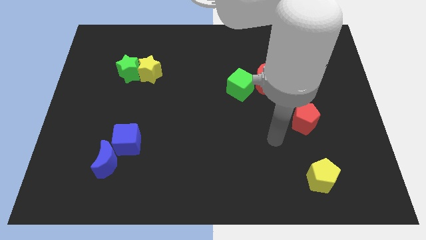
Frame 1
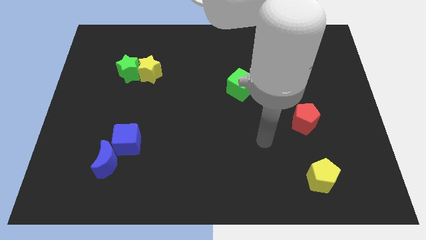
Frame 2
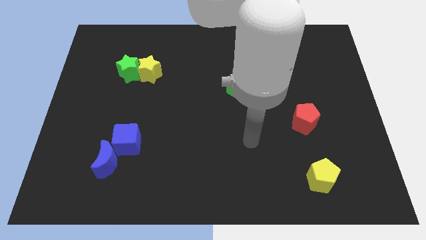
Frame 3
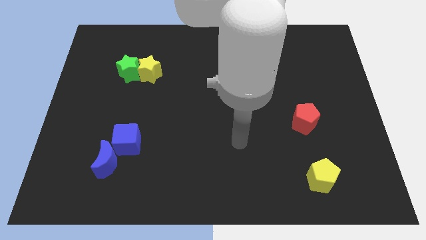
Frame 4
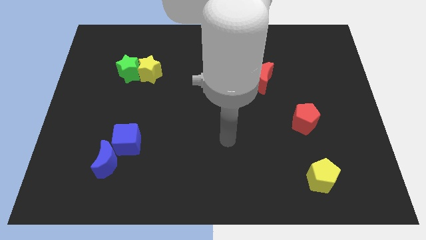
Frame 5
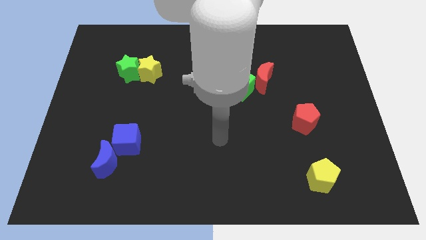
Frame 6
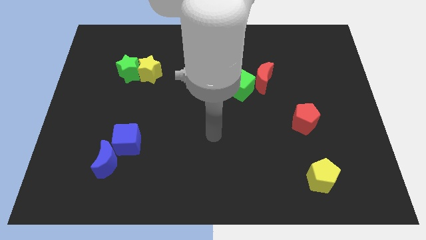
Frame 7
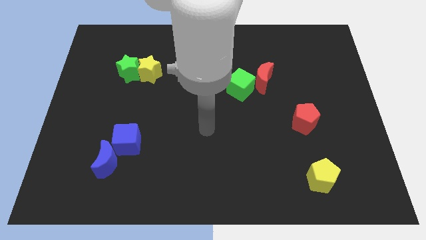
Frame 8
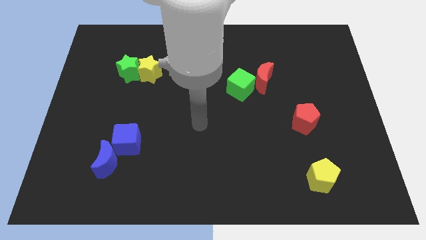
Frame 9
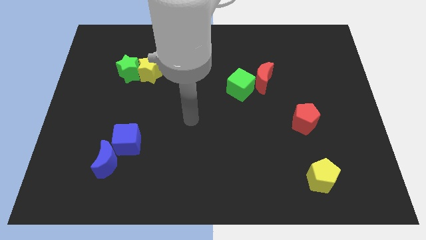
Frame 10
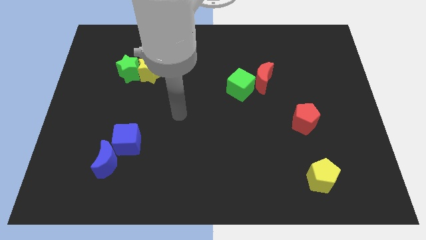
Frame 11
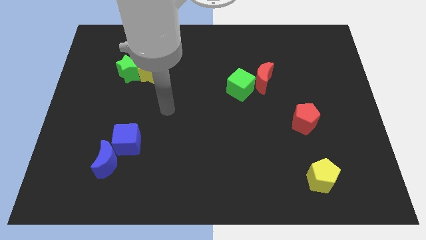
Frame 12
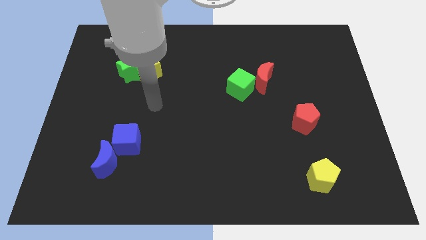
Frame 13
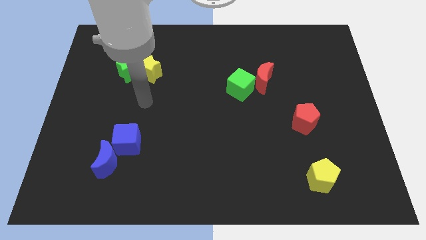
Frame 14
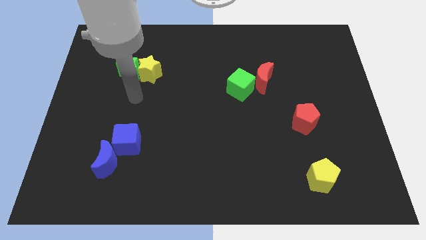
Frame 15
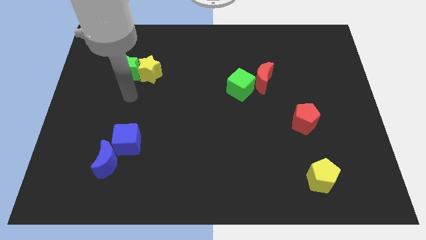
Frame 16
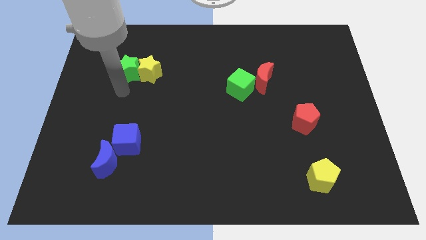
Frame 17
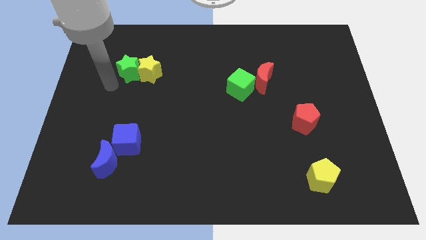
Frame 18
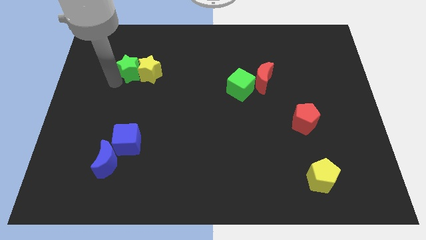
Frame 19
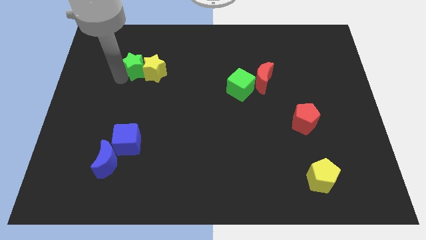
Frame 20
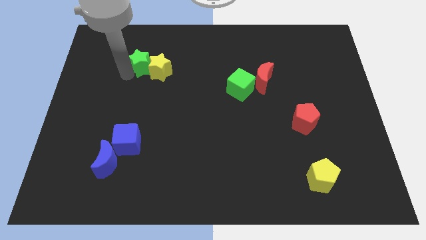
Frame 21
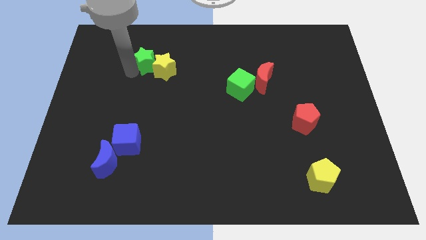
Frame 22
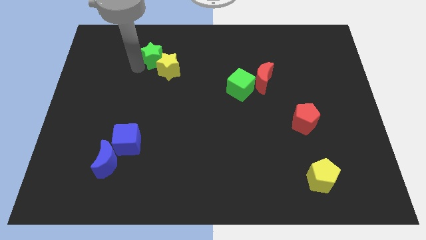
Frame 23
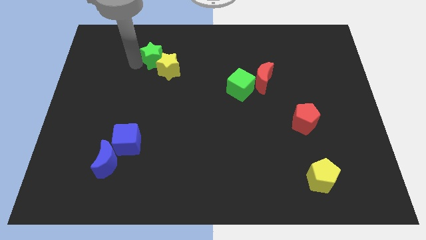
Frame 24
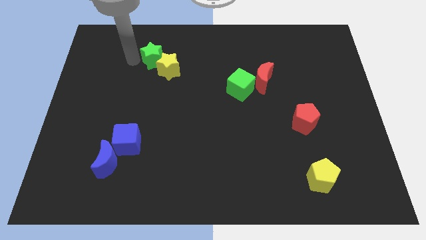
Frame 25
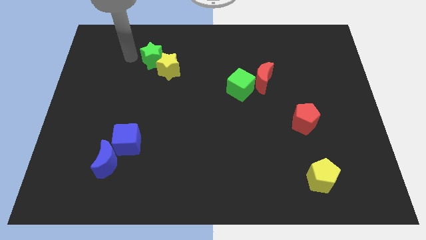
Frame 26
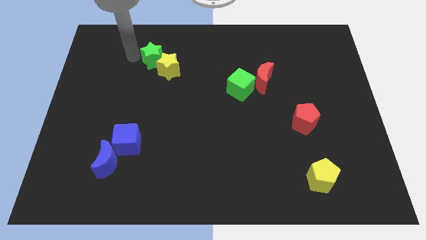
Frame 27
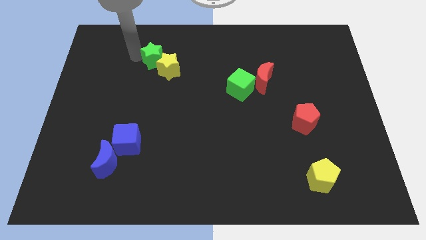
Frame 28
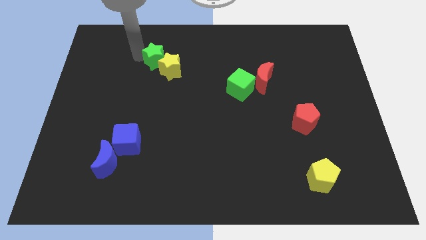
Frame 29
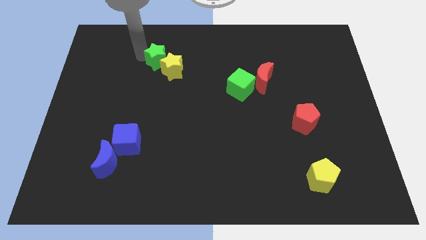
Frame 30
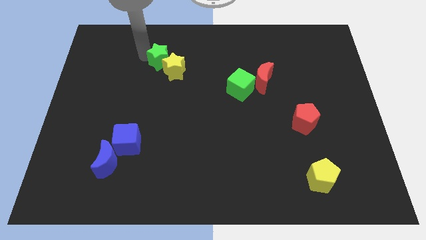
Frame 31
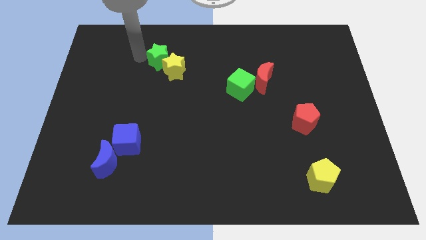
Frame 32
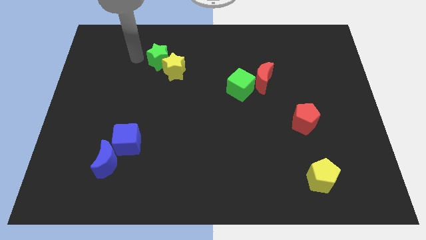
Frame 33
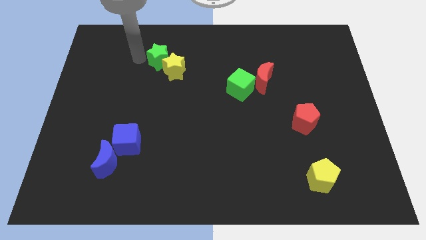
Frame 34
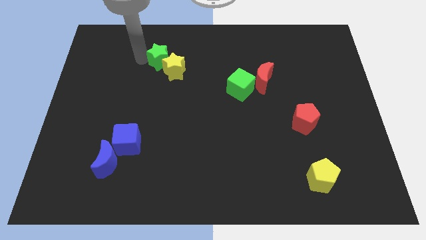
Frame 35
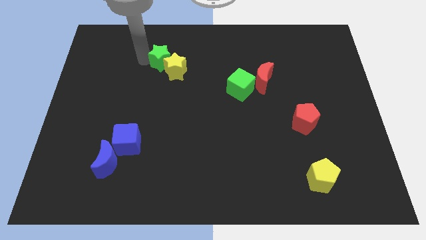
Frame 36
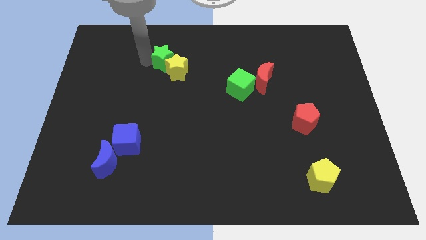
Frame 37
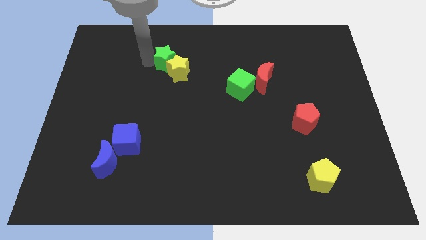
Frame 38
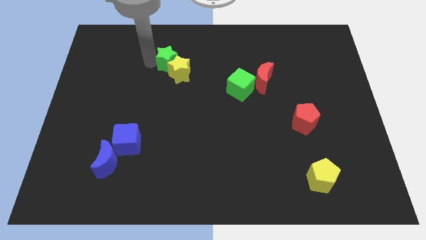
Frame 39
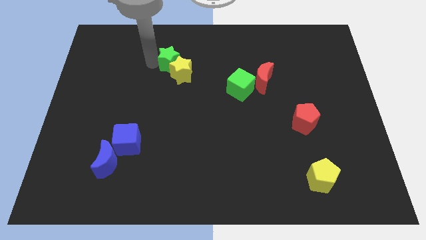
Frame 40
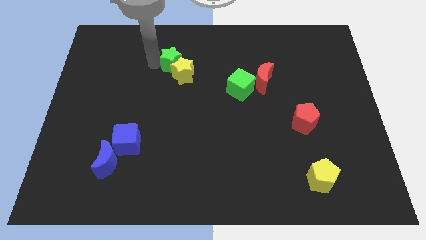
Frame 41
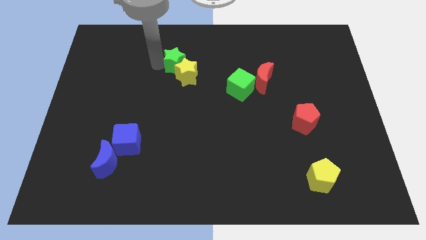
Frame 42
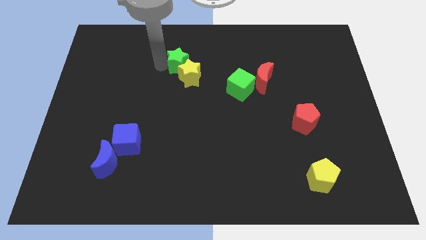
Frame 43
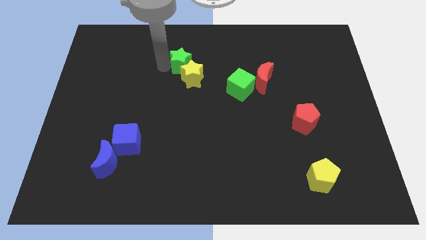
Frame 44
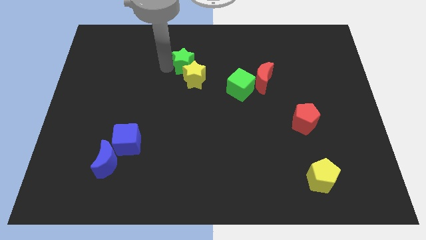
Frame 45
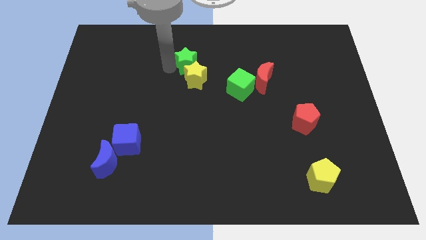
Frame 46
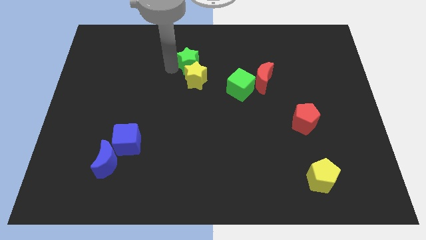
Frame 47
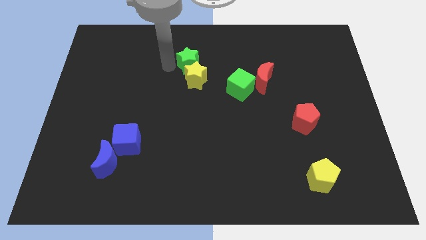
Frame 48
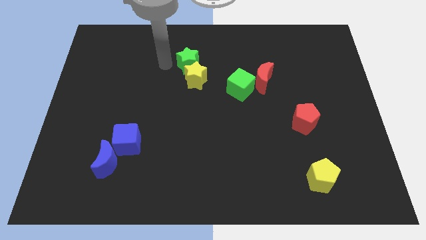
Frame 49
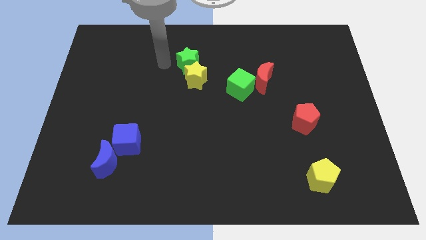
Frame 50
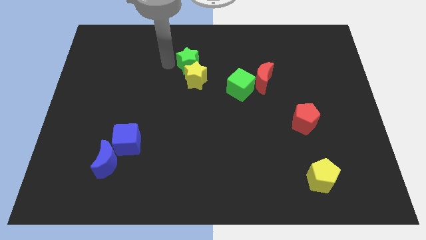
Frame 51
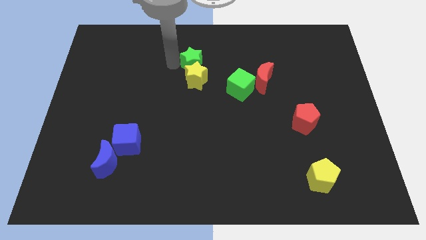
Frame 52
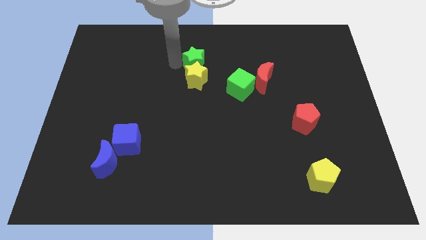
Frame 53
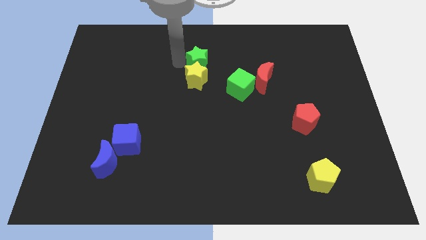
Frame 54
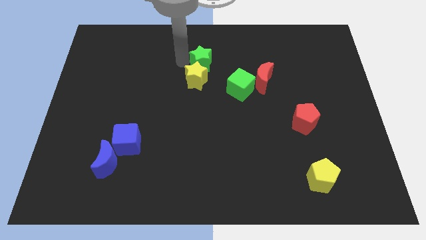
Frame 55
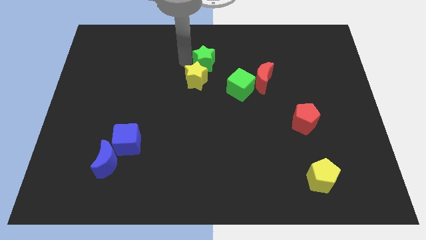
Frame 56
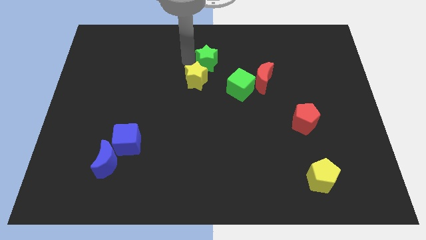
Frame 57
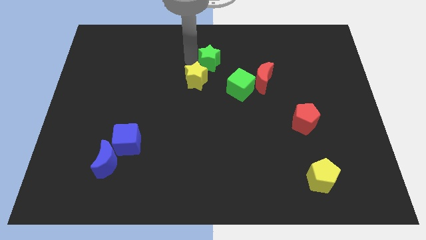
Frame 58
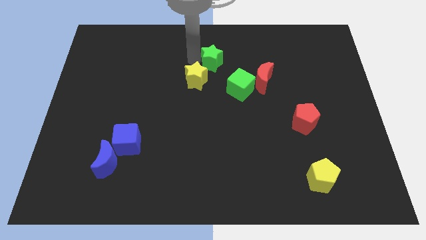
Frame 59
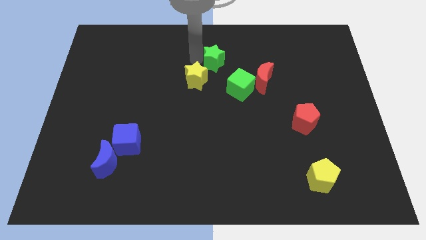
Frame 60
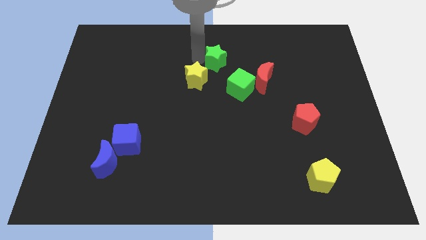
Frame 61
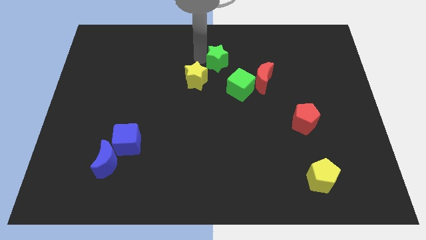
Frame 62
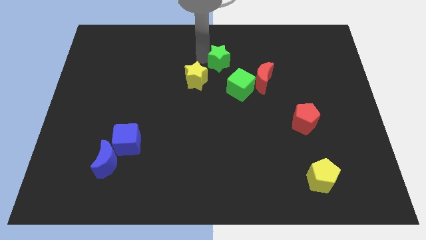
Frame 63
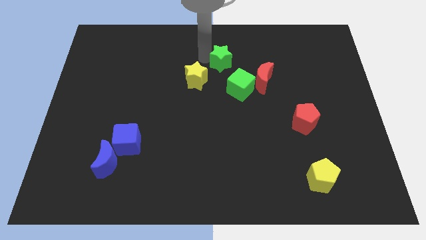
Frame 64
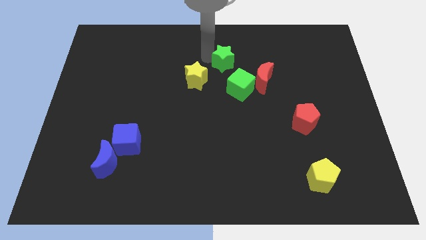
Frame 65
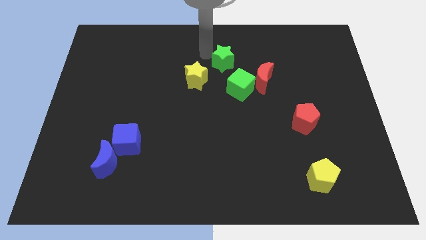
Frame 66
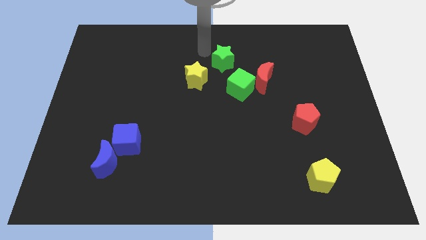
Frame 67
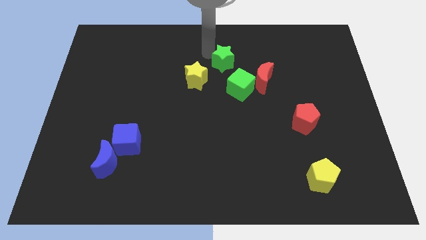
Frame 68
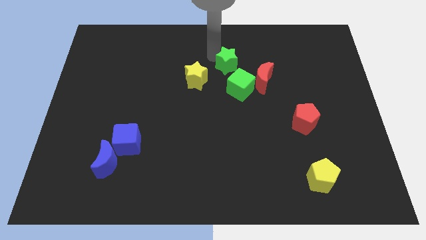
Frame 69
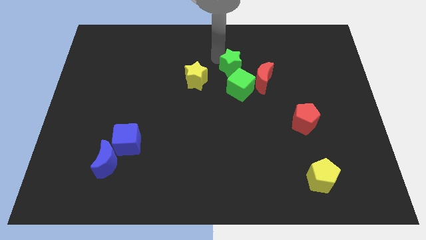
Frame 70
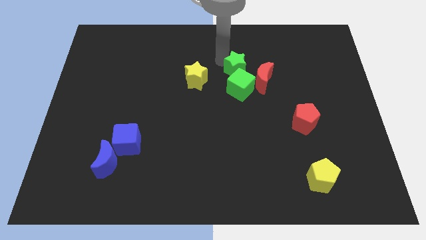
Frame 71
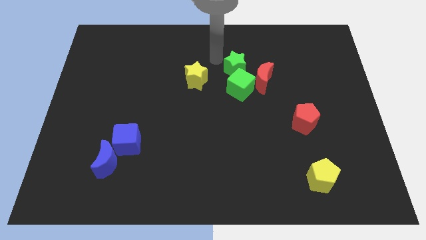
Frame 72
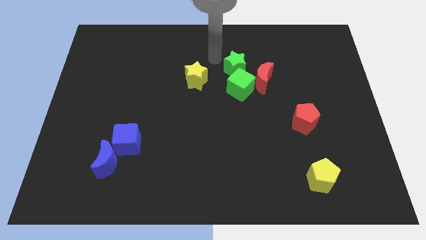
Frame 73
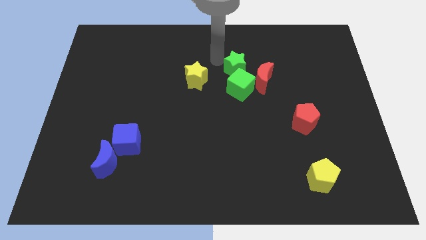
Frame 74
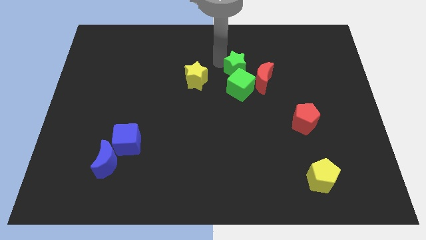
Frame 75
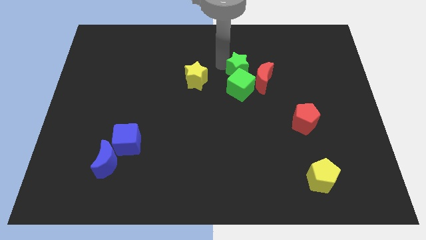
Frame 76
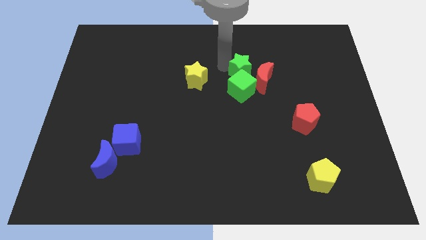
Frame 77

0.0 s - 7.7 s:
move the green star close to the red moon
